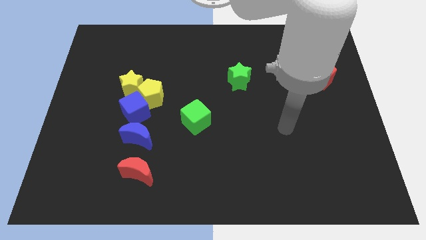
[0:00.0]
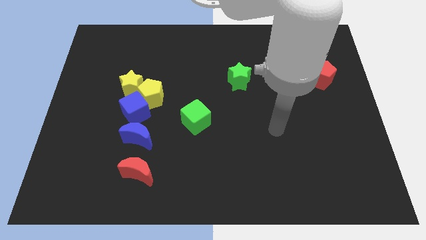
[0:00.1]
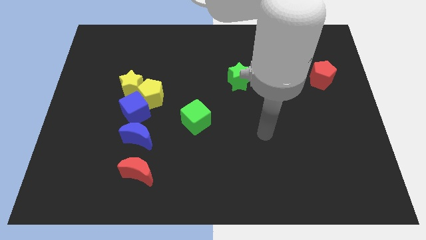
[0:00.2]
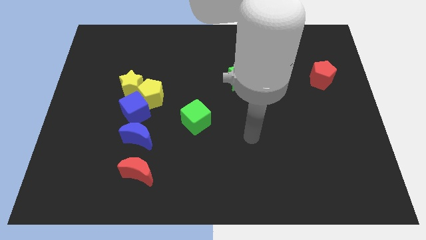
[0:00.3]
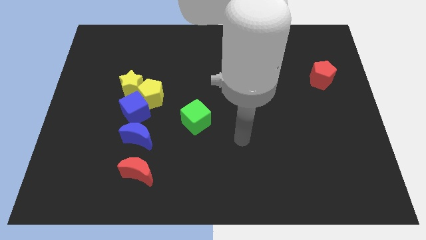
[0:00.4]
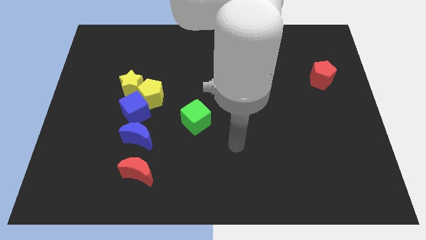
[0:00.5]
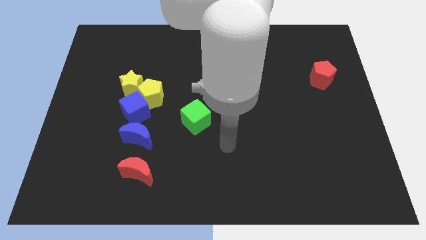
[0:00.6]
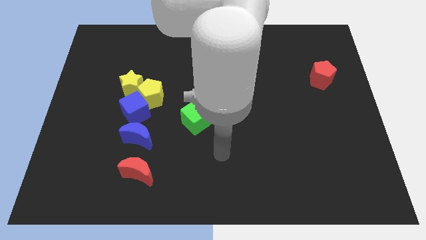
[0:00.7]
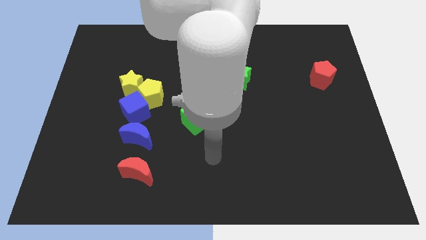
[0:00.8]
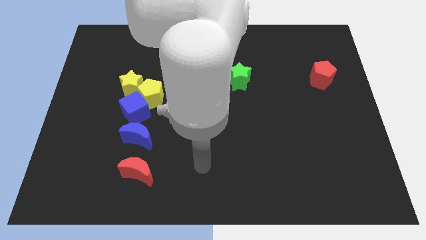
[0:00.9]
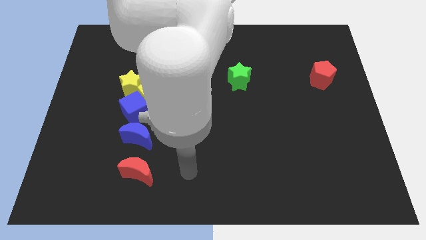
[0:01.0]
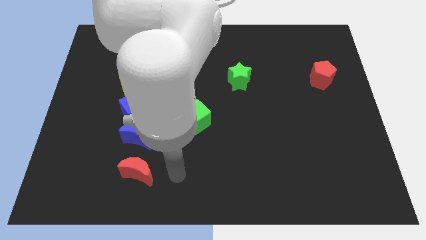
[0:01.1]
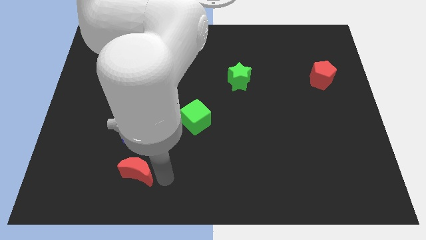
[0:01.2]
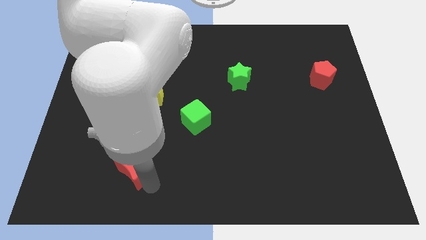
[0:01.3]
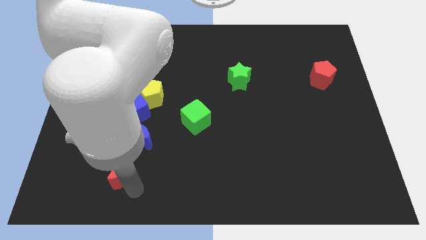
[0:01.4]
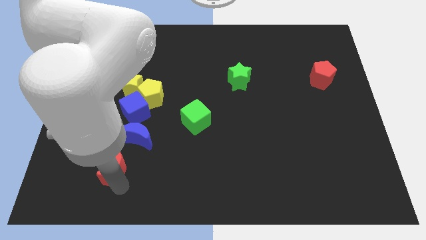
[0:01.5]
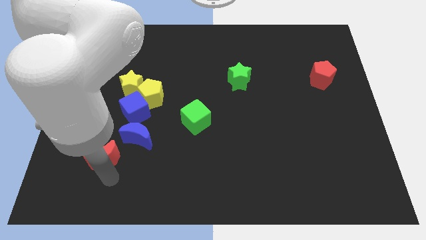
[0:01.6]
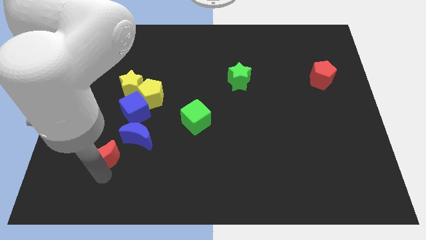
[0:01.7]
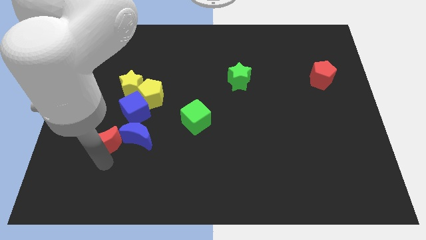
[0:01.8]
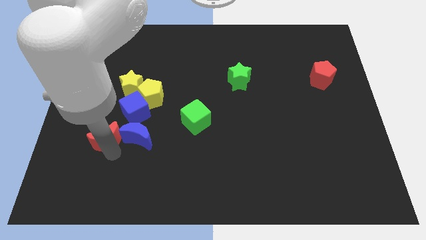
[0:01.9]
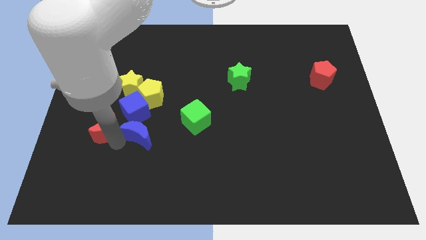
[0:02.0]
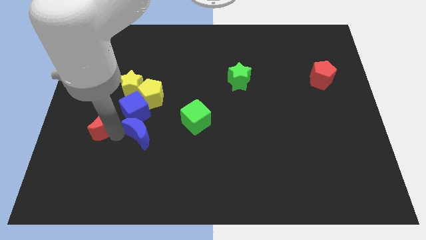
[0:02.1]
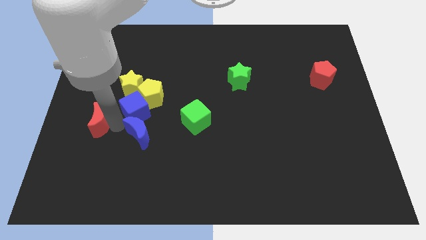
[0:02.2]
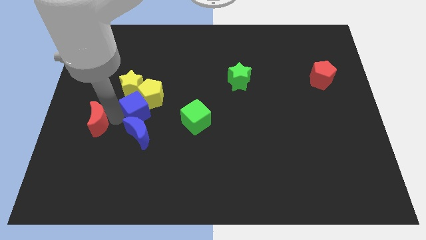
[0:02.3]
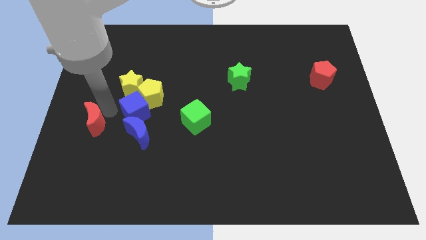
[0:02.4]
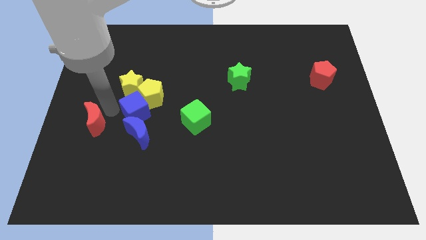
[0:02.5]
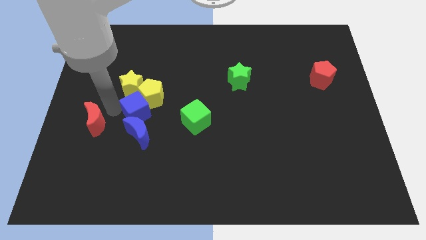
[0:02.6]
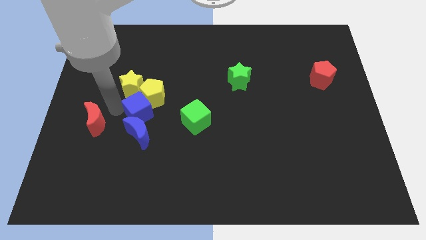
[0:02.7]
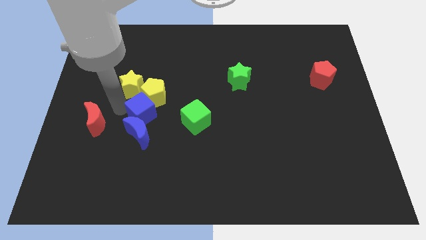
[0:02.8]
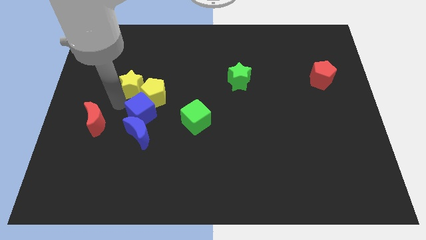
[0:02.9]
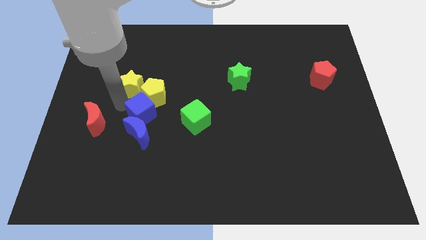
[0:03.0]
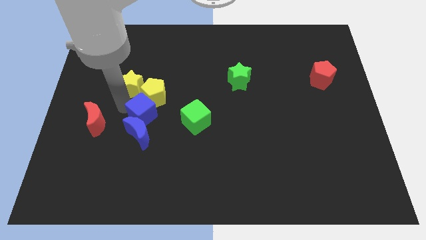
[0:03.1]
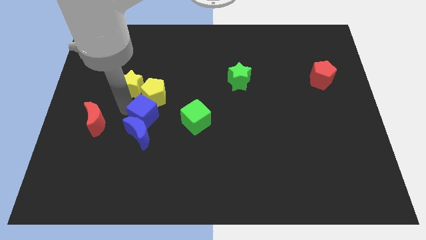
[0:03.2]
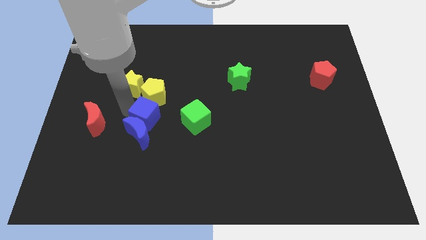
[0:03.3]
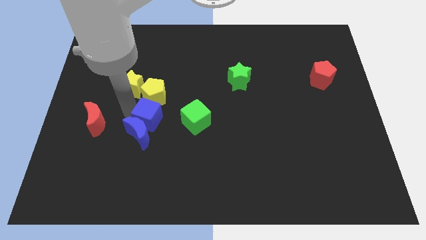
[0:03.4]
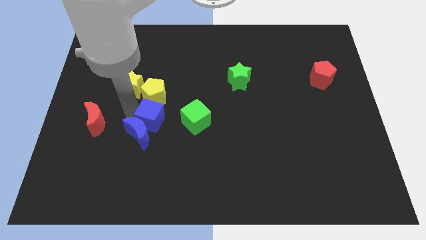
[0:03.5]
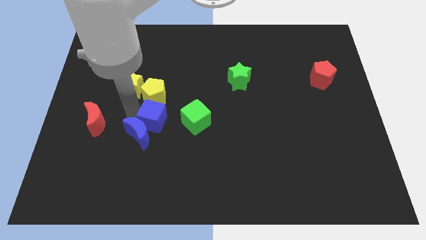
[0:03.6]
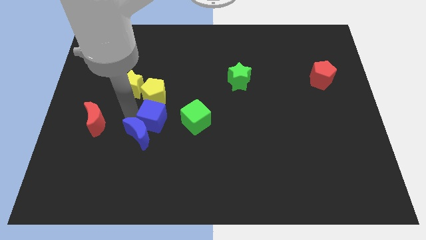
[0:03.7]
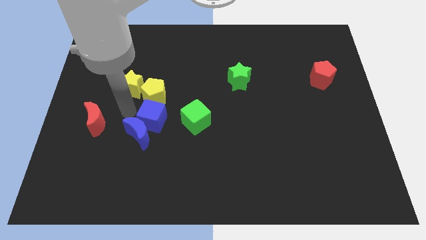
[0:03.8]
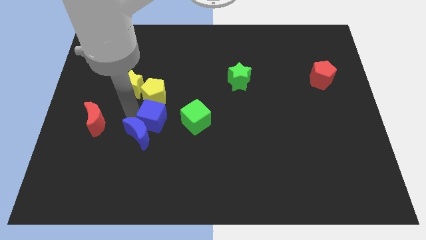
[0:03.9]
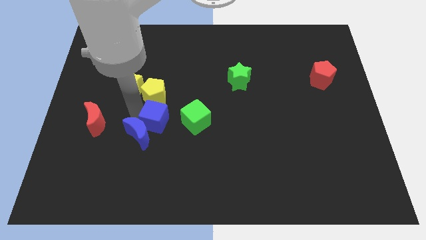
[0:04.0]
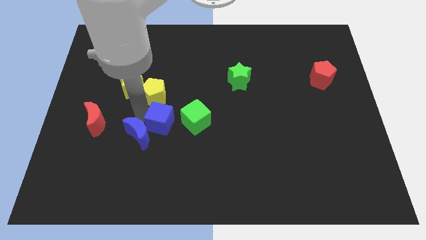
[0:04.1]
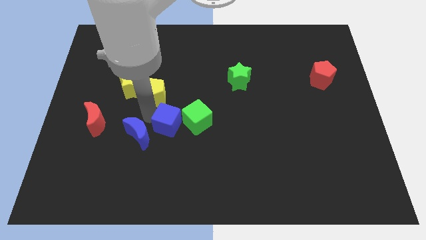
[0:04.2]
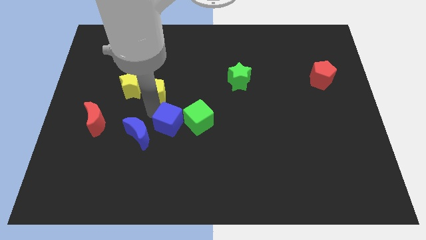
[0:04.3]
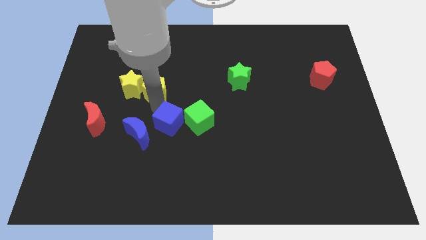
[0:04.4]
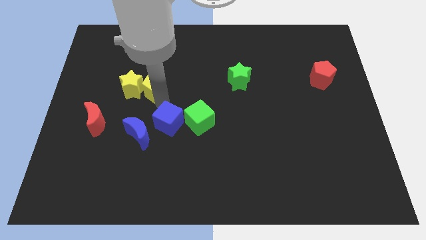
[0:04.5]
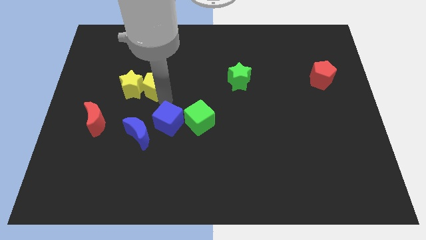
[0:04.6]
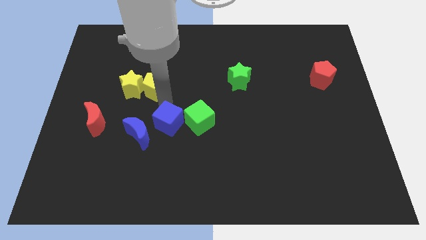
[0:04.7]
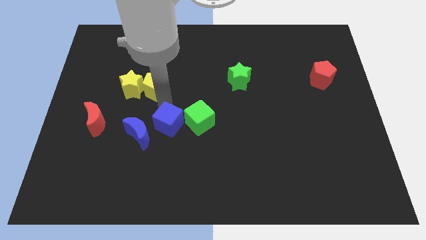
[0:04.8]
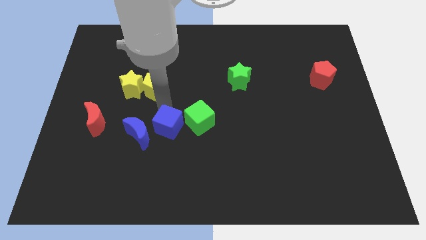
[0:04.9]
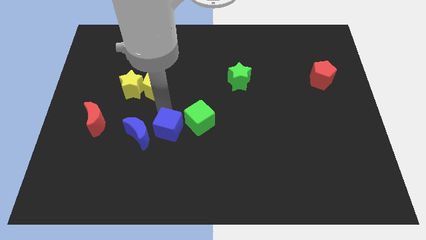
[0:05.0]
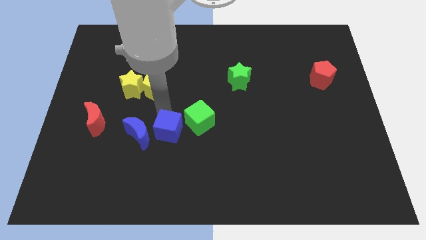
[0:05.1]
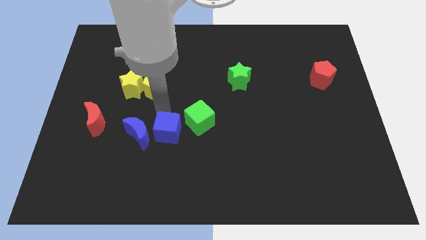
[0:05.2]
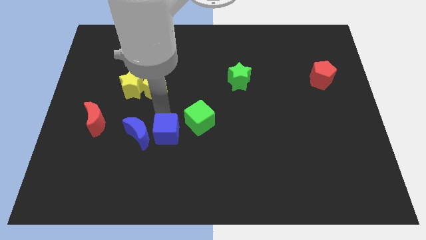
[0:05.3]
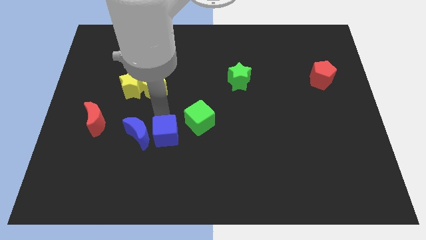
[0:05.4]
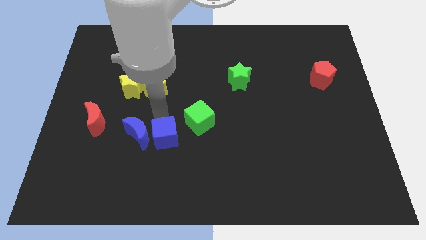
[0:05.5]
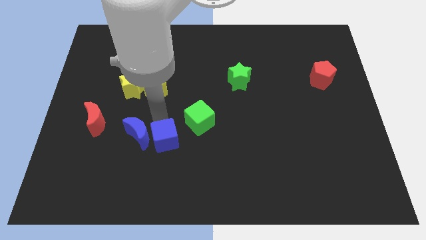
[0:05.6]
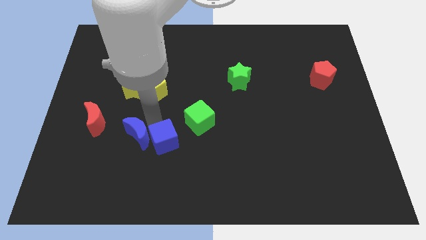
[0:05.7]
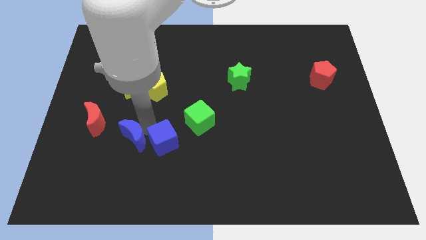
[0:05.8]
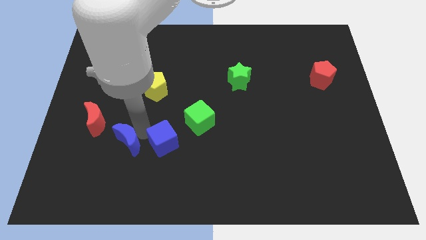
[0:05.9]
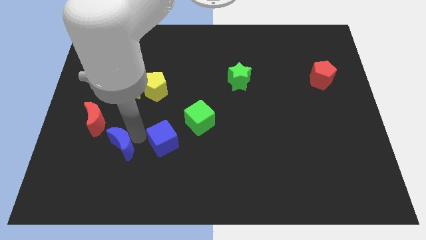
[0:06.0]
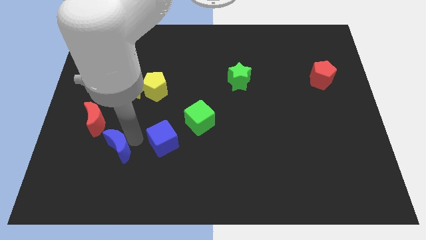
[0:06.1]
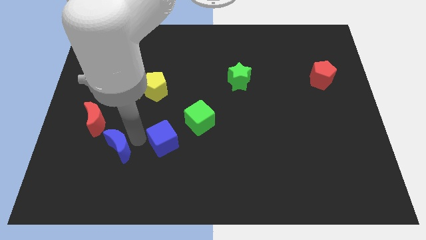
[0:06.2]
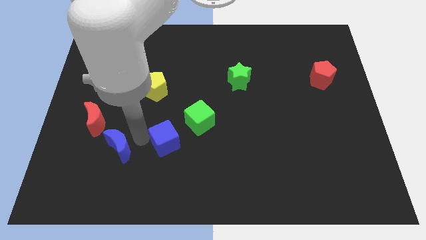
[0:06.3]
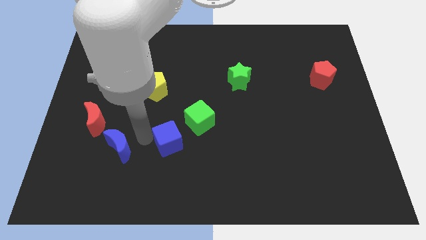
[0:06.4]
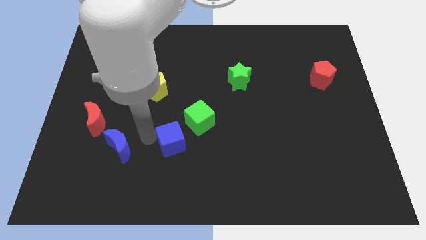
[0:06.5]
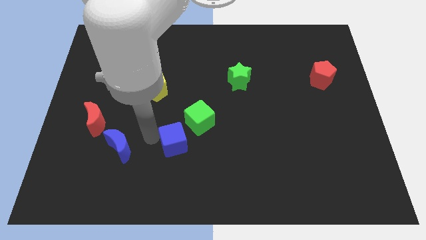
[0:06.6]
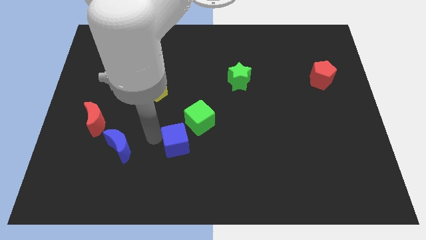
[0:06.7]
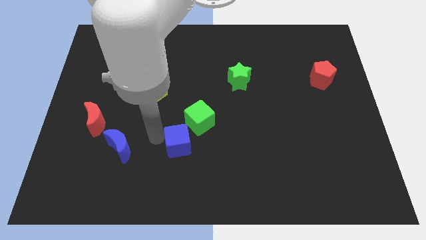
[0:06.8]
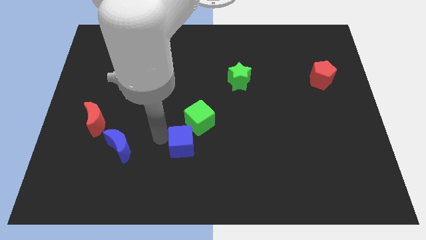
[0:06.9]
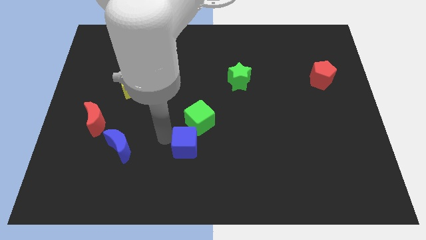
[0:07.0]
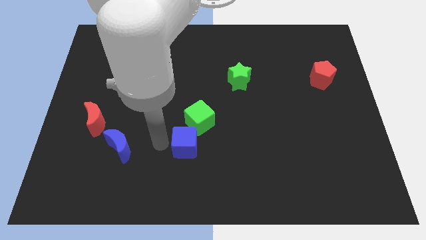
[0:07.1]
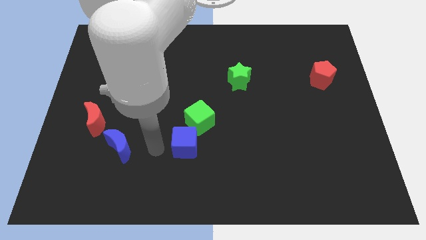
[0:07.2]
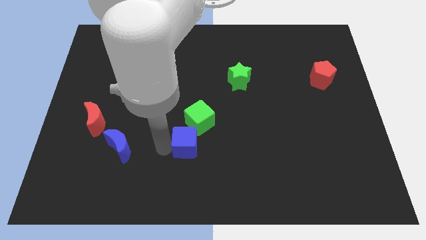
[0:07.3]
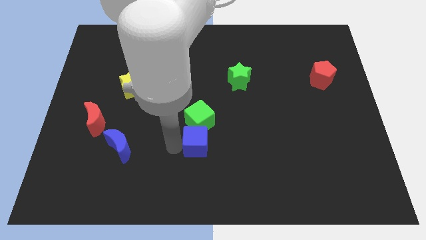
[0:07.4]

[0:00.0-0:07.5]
push the blue cube to the bottom right of the green cube
